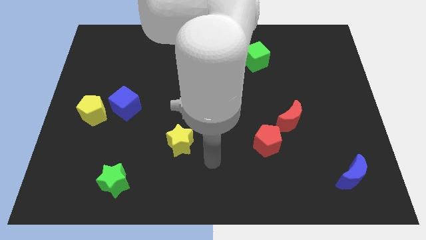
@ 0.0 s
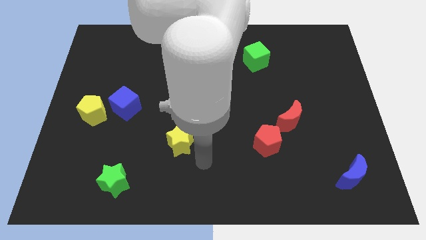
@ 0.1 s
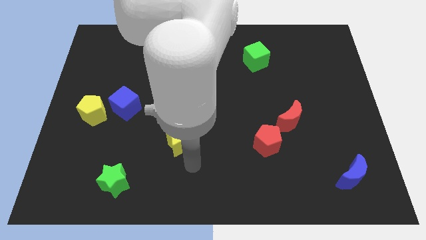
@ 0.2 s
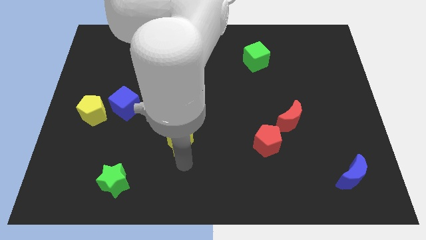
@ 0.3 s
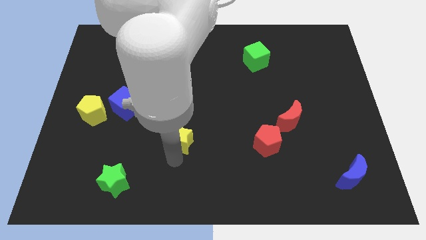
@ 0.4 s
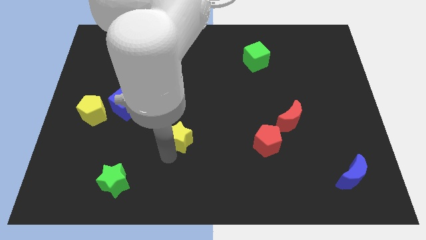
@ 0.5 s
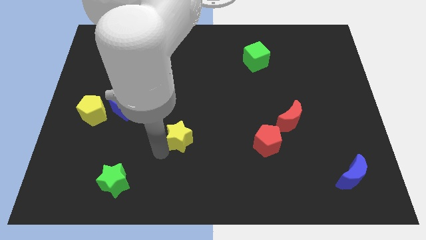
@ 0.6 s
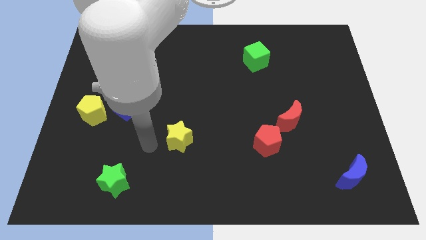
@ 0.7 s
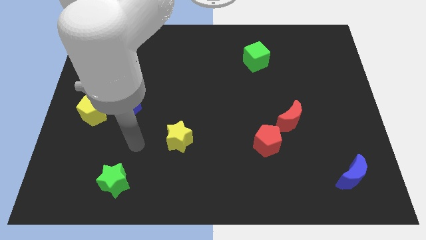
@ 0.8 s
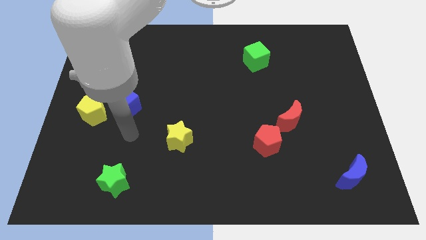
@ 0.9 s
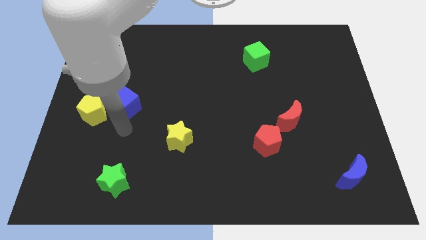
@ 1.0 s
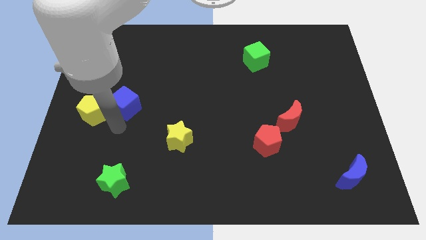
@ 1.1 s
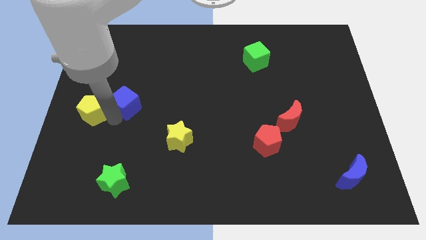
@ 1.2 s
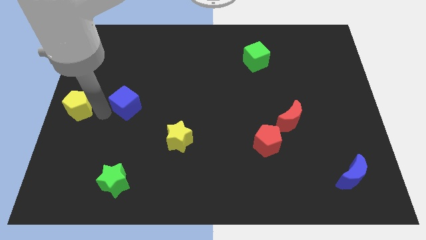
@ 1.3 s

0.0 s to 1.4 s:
pull the blue cube apart from the yellow pentagon

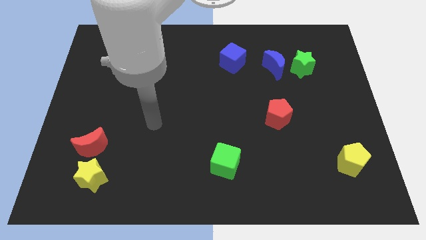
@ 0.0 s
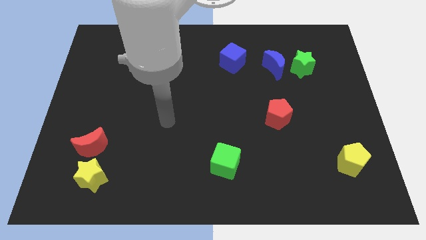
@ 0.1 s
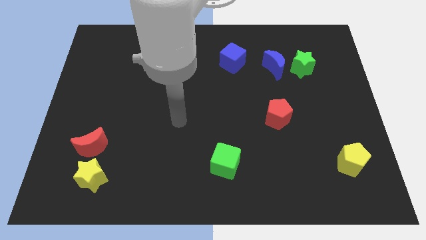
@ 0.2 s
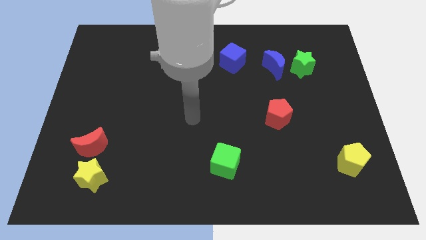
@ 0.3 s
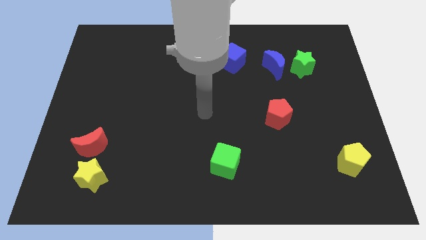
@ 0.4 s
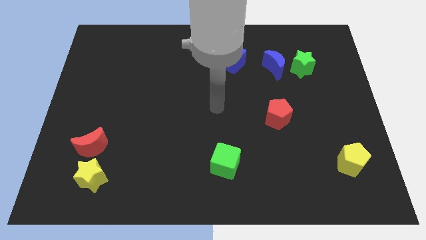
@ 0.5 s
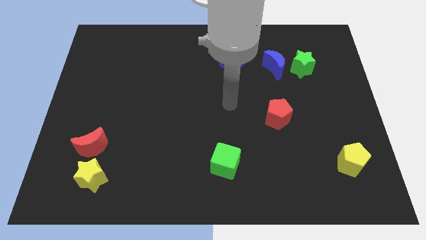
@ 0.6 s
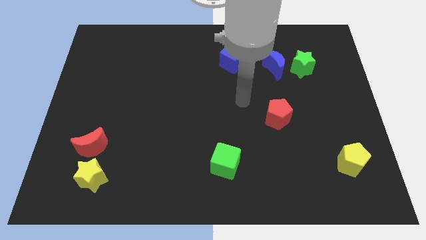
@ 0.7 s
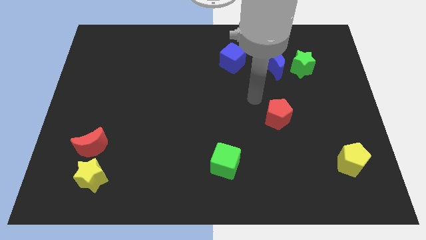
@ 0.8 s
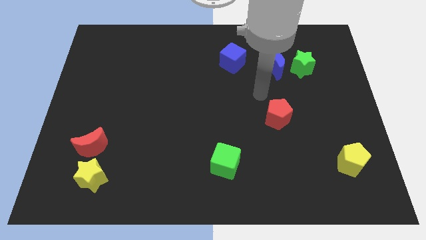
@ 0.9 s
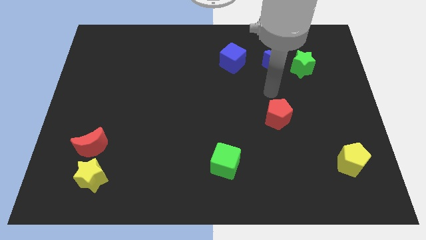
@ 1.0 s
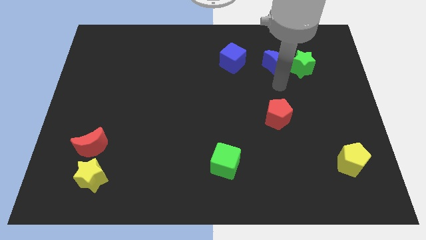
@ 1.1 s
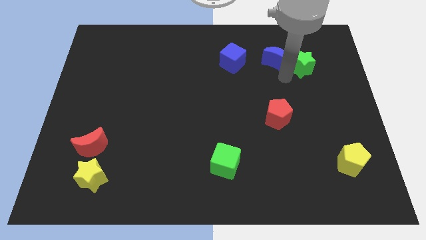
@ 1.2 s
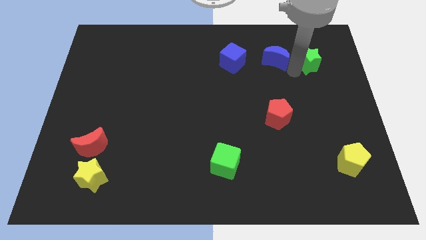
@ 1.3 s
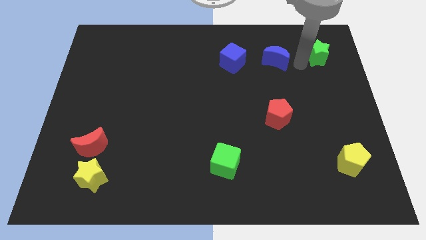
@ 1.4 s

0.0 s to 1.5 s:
separate the blue moon from the green star

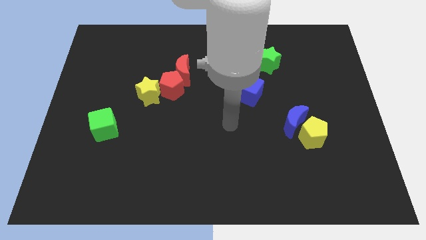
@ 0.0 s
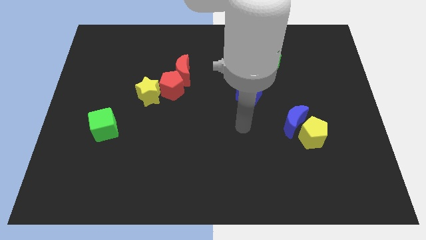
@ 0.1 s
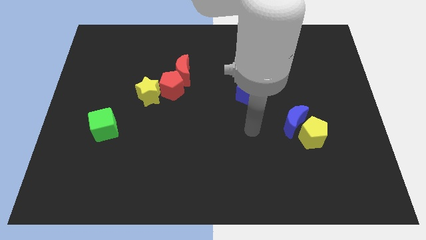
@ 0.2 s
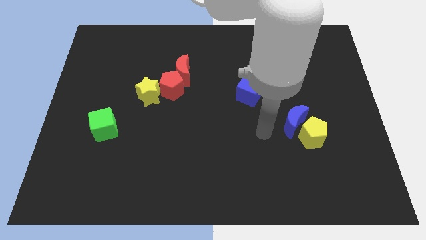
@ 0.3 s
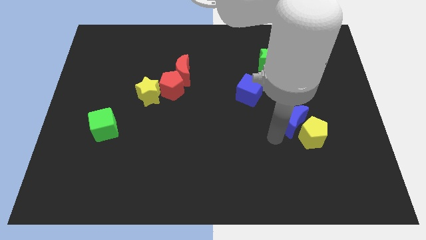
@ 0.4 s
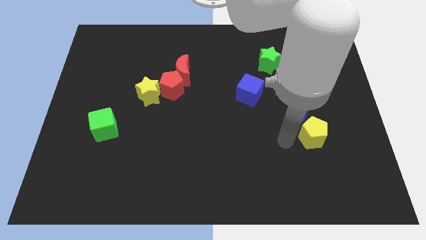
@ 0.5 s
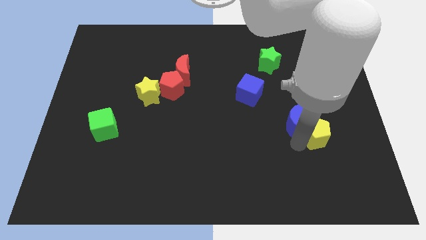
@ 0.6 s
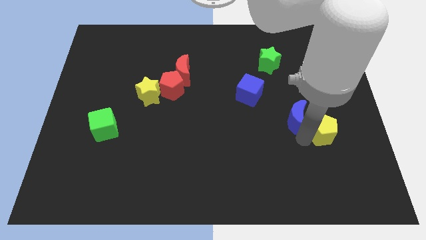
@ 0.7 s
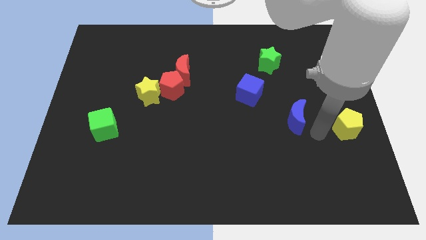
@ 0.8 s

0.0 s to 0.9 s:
move the blue moon away from the yellow pentagon

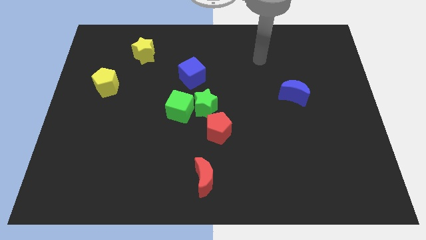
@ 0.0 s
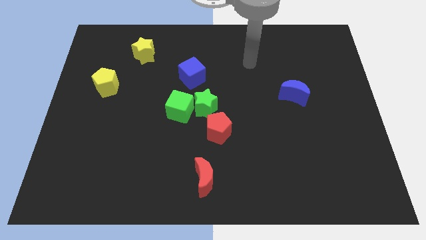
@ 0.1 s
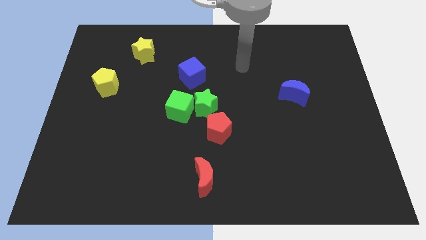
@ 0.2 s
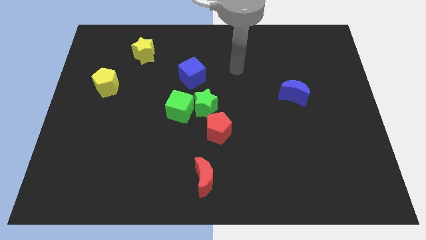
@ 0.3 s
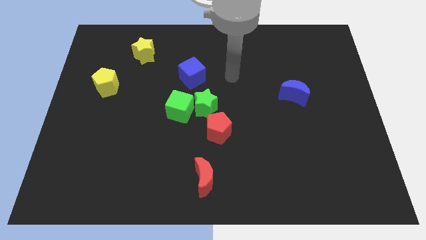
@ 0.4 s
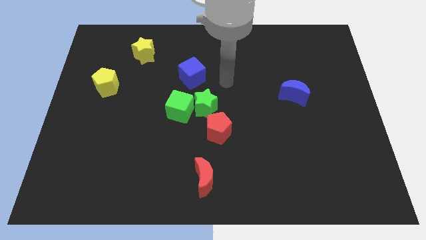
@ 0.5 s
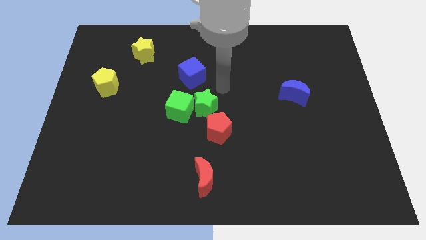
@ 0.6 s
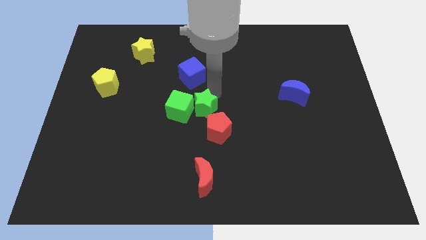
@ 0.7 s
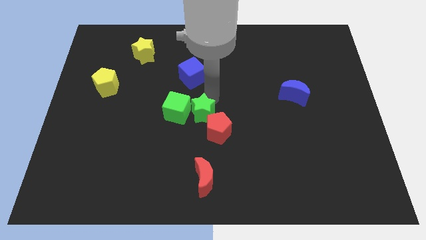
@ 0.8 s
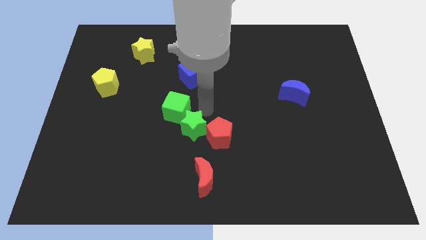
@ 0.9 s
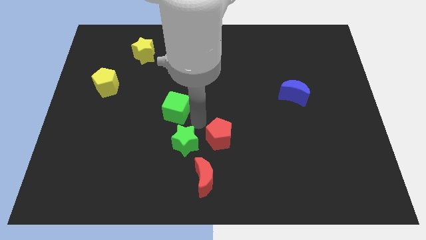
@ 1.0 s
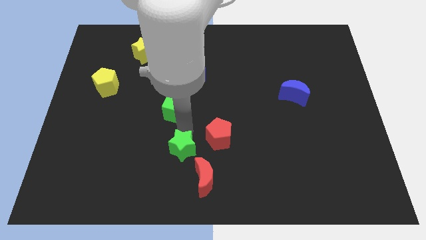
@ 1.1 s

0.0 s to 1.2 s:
pull the green cube apart from the green star

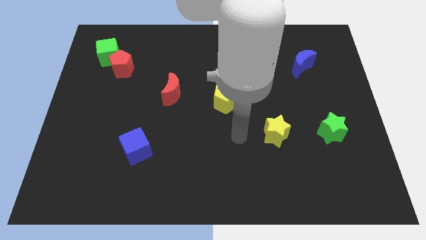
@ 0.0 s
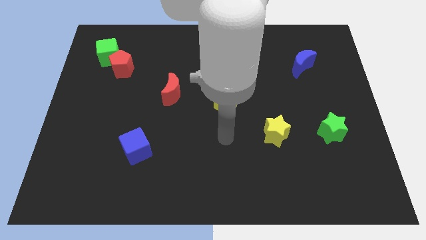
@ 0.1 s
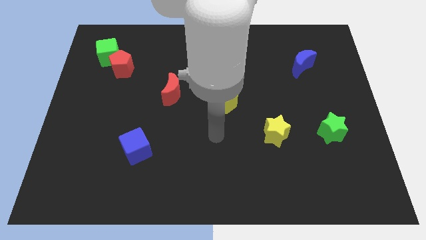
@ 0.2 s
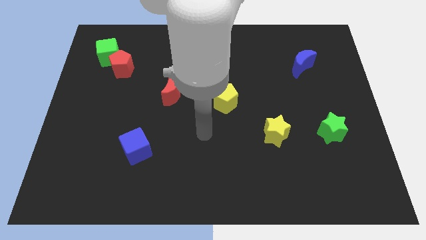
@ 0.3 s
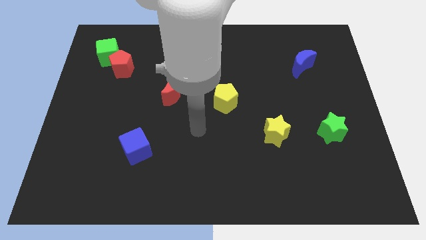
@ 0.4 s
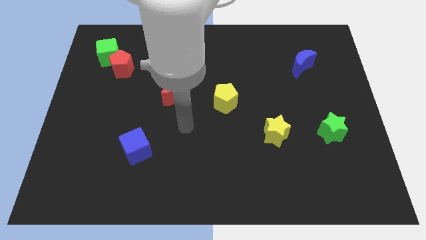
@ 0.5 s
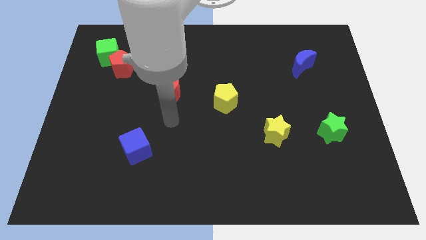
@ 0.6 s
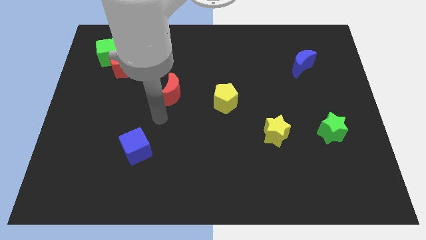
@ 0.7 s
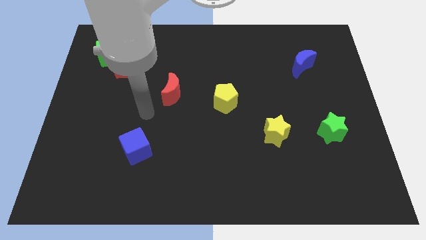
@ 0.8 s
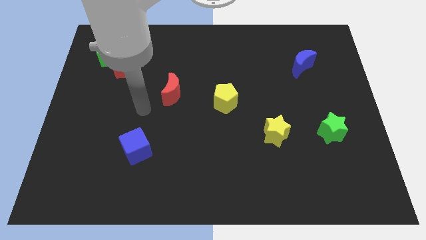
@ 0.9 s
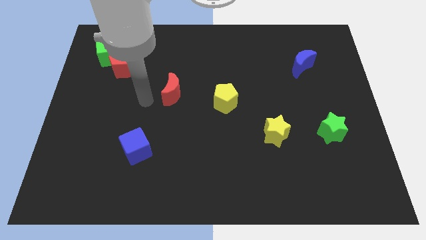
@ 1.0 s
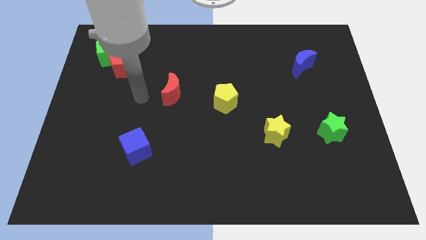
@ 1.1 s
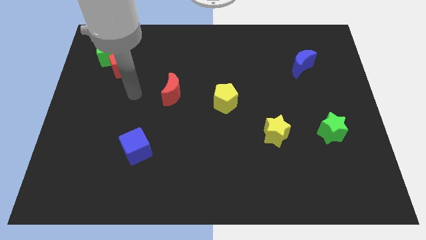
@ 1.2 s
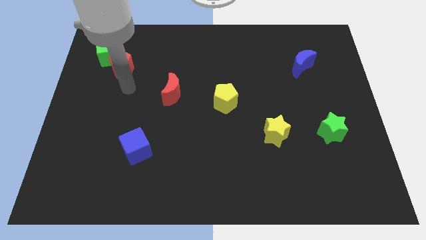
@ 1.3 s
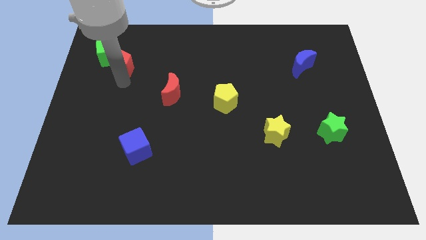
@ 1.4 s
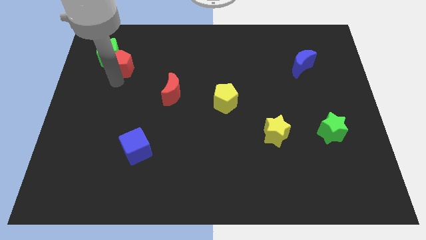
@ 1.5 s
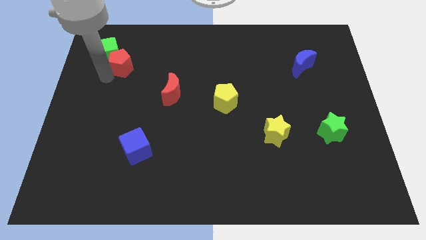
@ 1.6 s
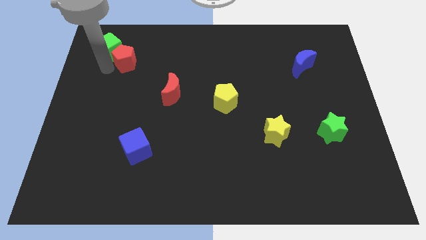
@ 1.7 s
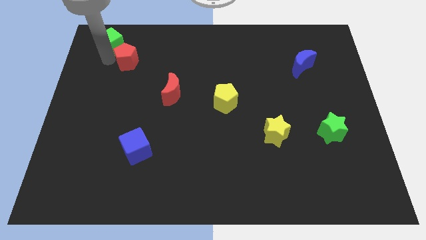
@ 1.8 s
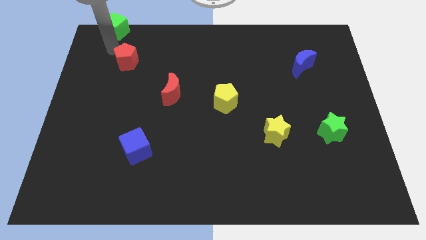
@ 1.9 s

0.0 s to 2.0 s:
pull the red pentagon apart from the green cube

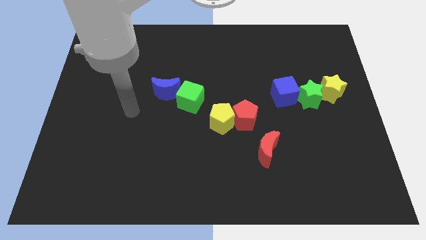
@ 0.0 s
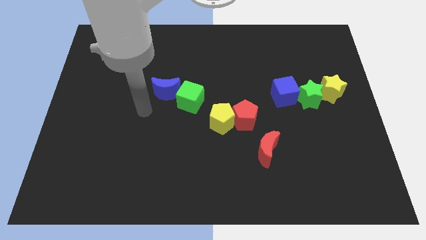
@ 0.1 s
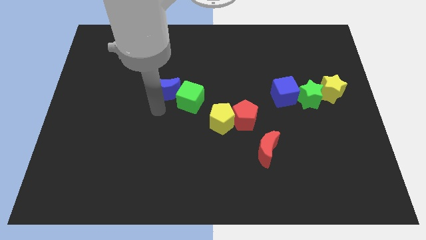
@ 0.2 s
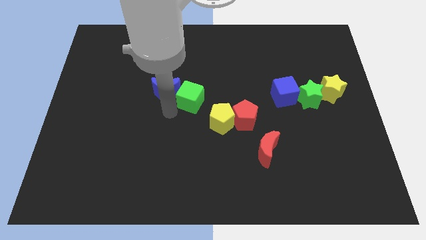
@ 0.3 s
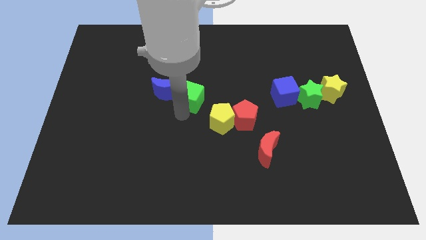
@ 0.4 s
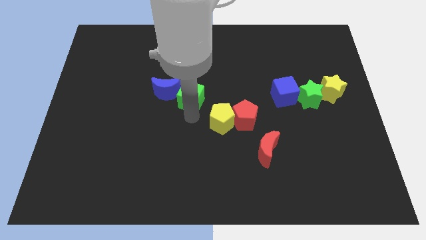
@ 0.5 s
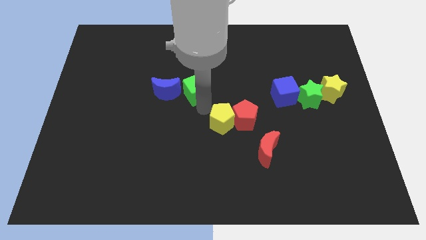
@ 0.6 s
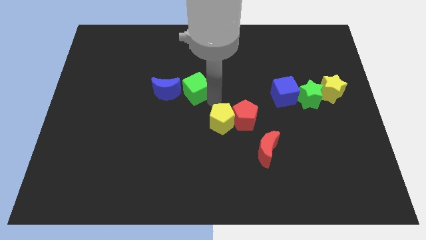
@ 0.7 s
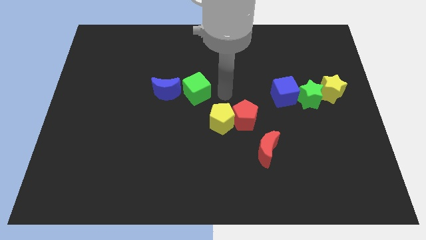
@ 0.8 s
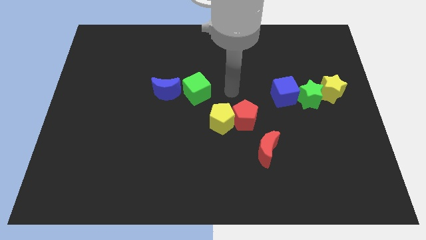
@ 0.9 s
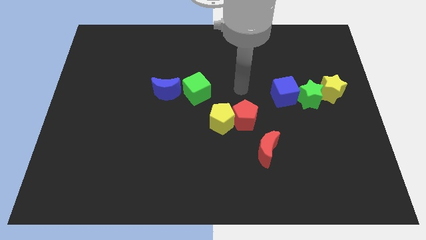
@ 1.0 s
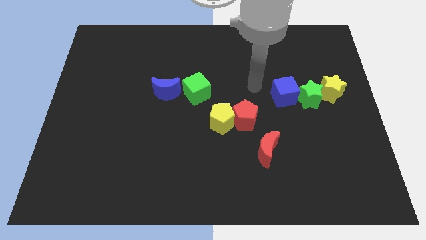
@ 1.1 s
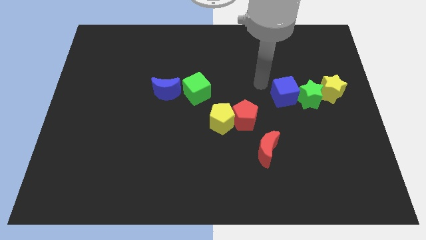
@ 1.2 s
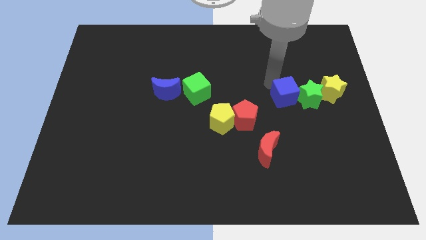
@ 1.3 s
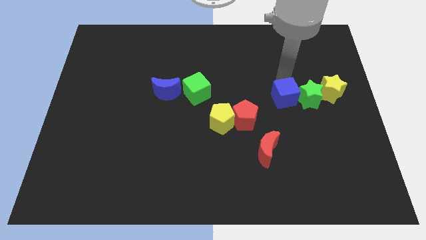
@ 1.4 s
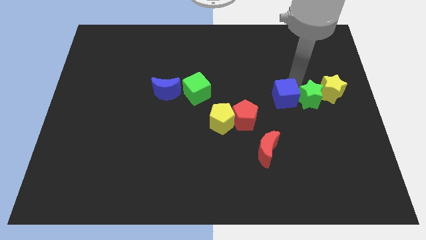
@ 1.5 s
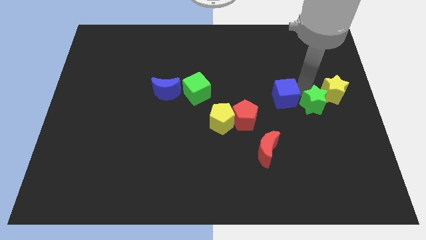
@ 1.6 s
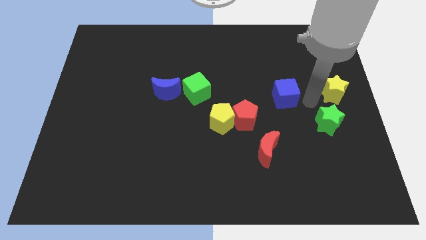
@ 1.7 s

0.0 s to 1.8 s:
move the blue cube away from the green star

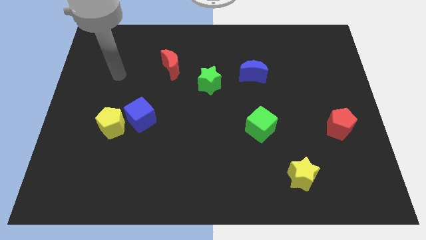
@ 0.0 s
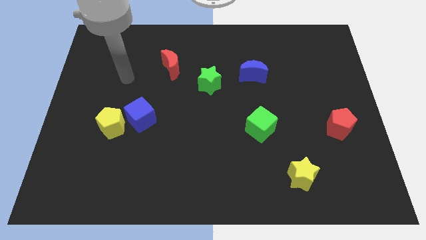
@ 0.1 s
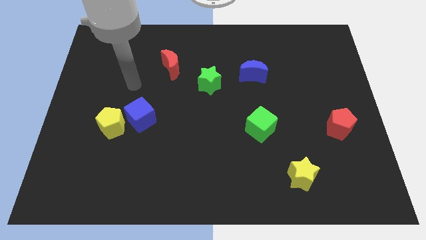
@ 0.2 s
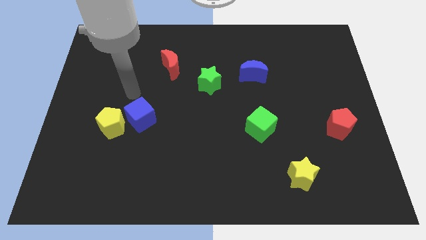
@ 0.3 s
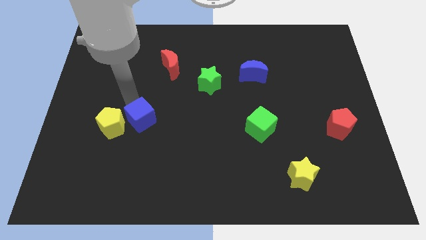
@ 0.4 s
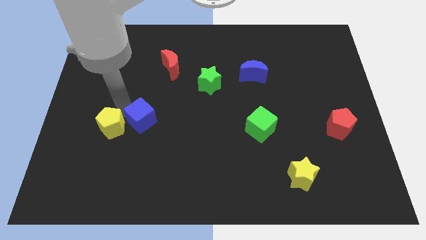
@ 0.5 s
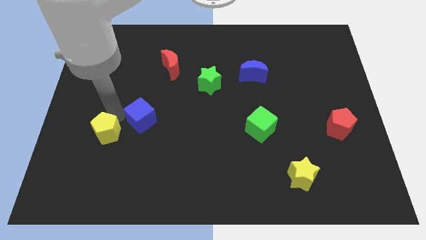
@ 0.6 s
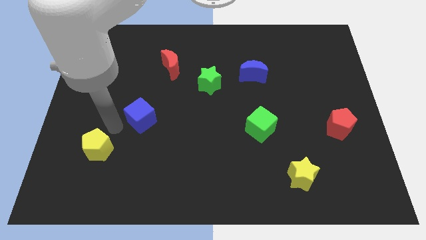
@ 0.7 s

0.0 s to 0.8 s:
separate the blue cube from the yellow pentagon
